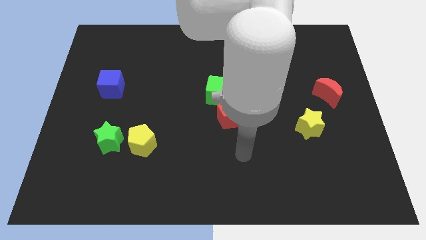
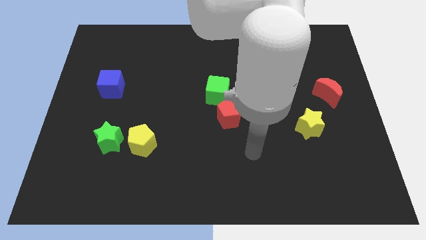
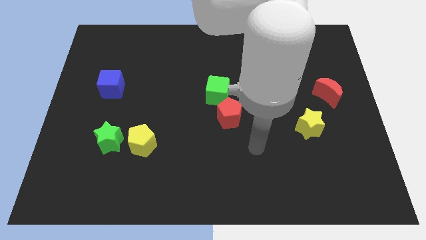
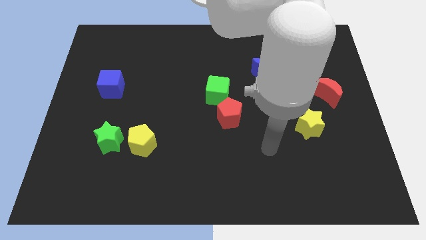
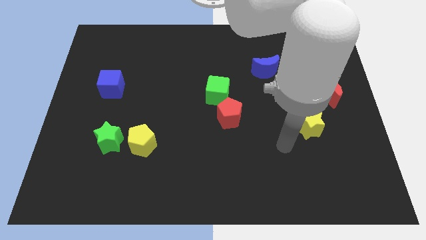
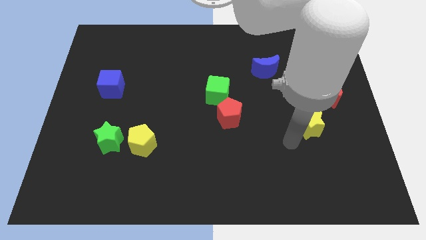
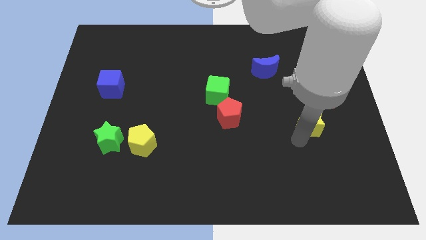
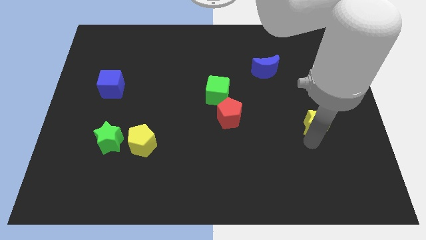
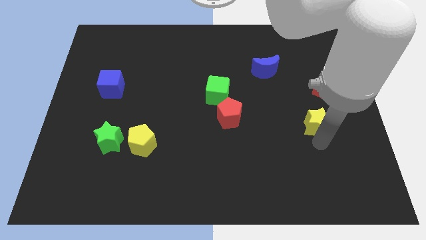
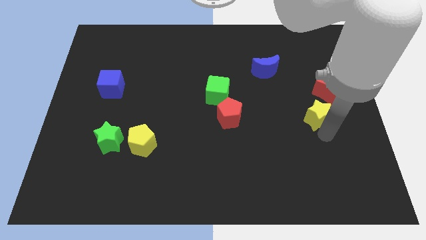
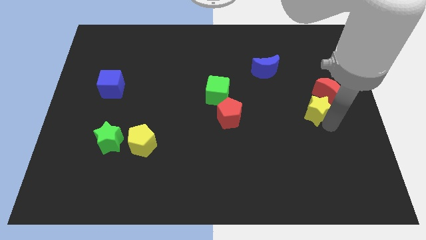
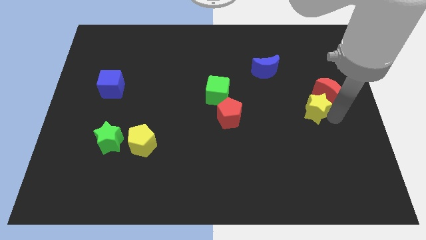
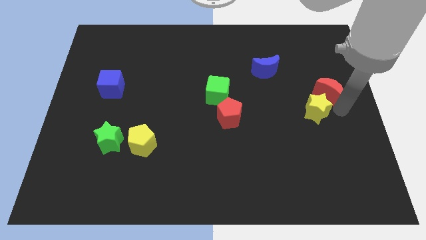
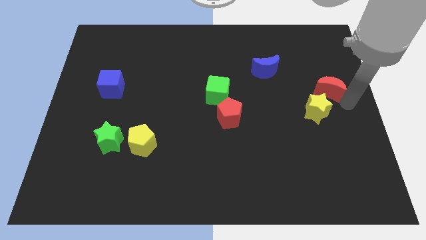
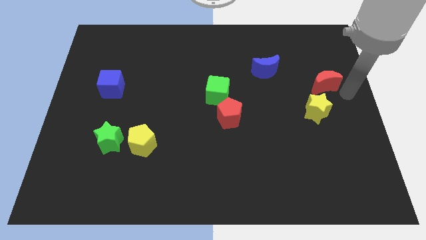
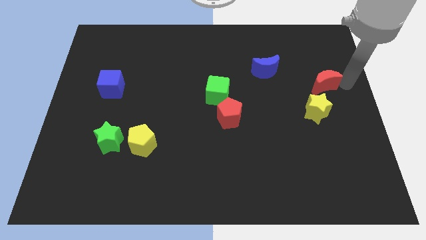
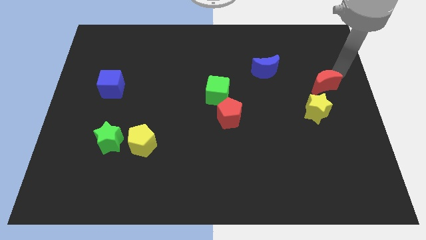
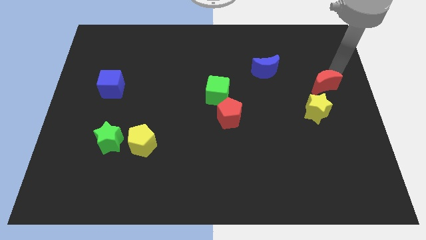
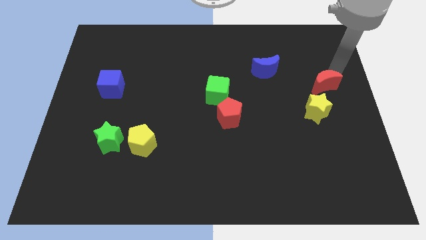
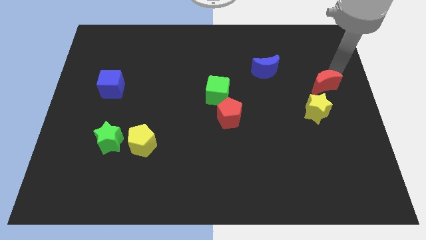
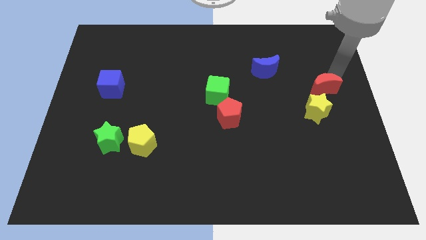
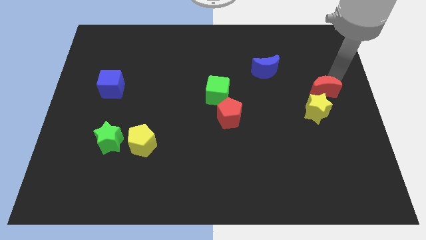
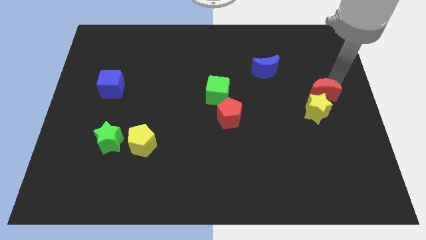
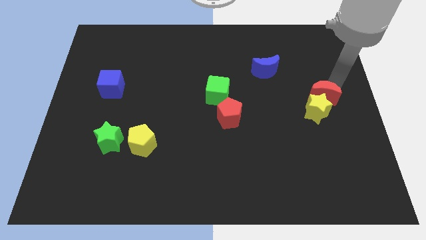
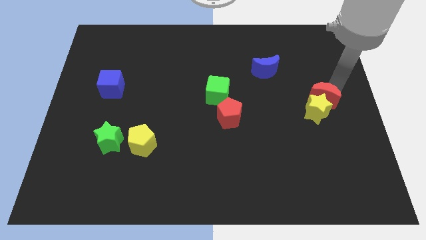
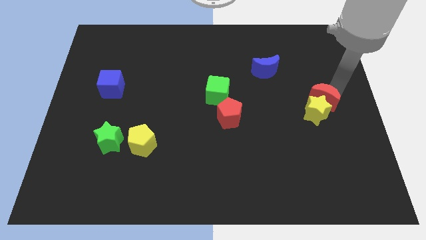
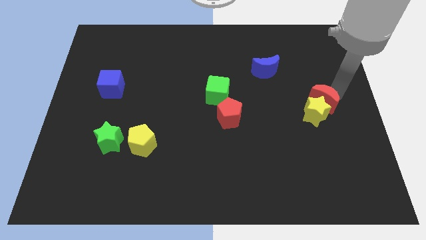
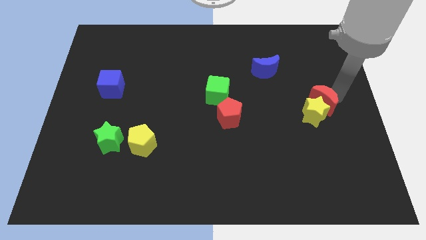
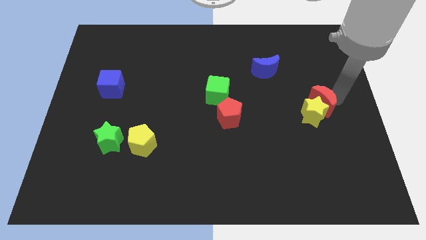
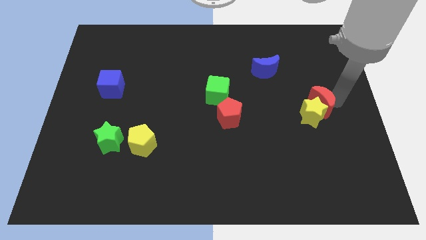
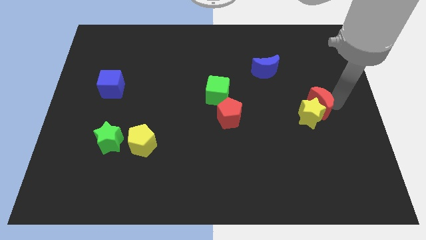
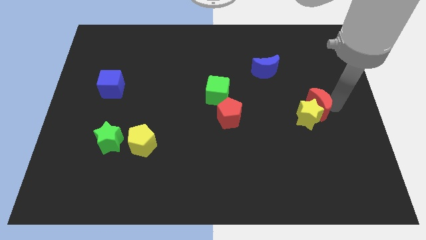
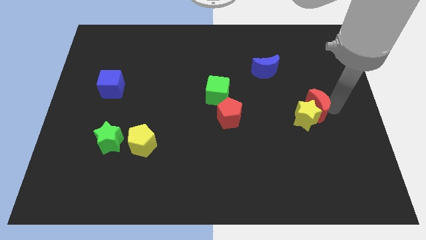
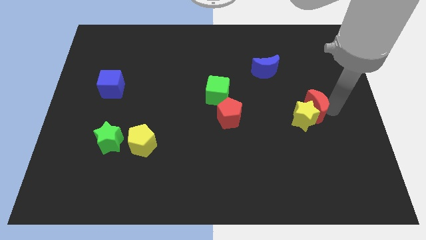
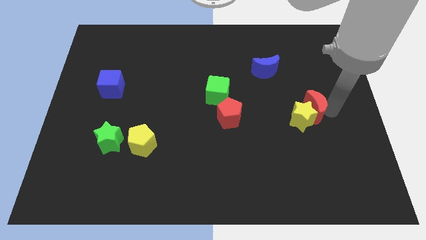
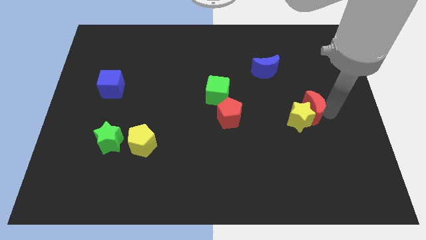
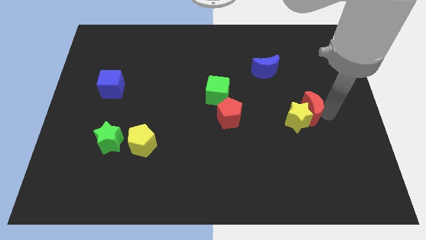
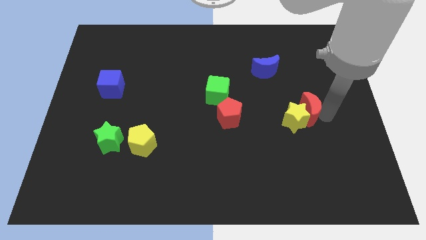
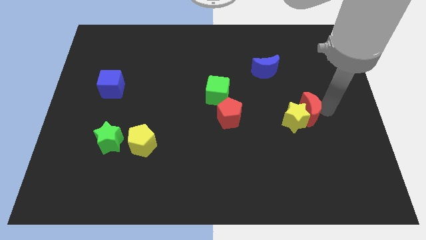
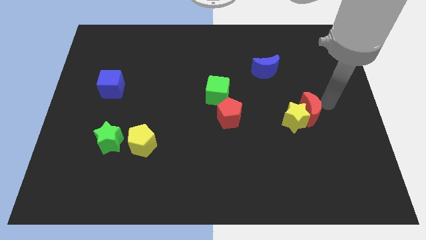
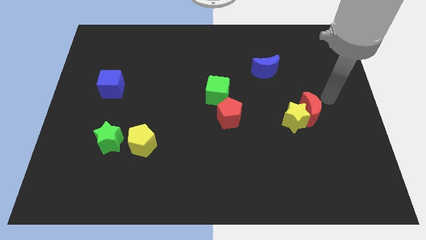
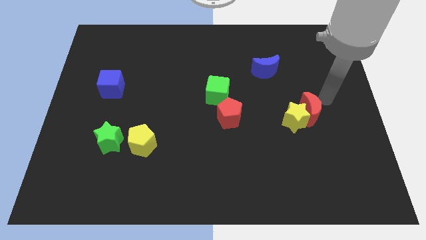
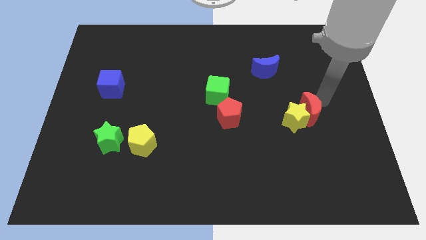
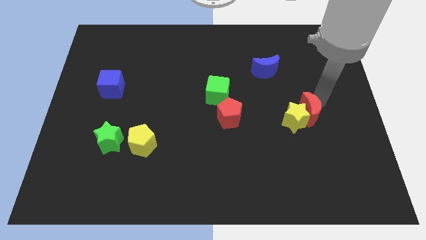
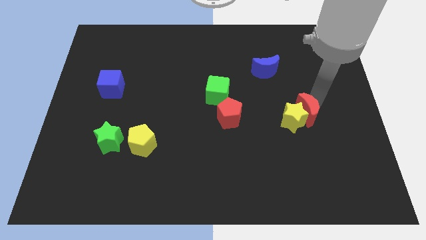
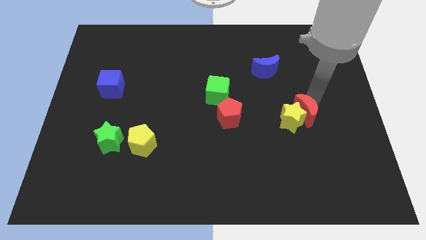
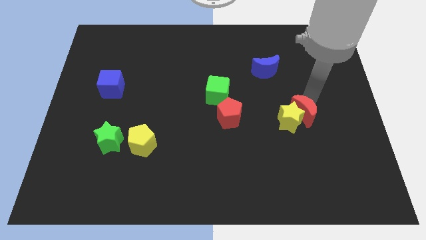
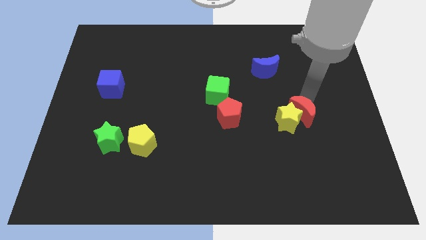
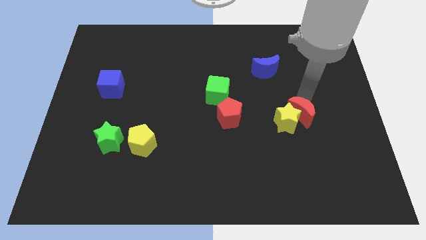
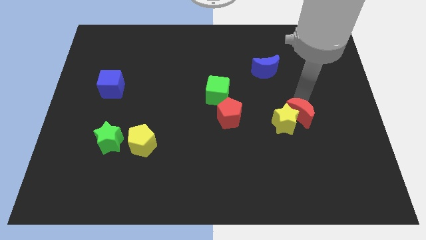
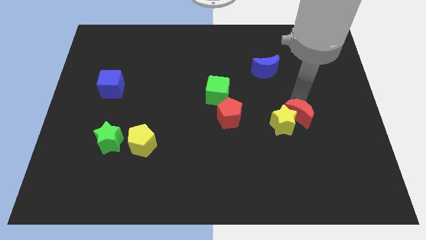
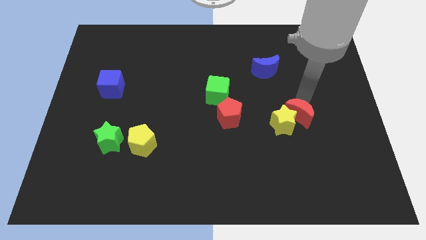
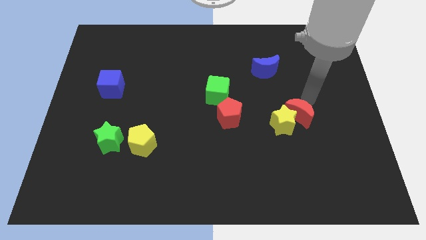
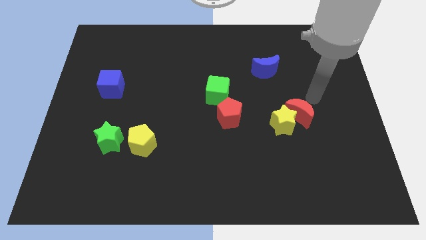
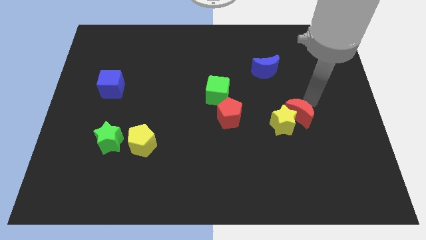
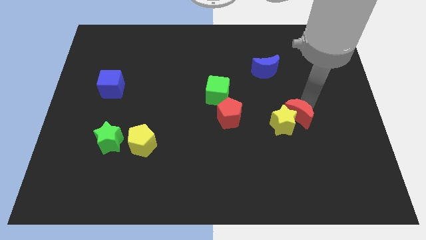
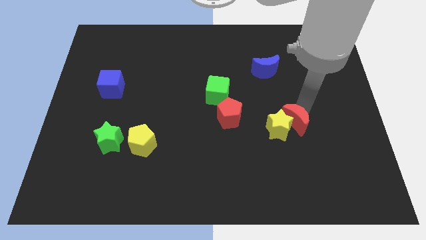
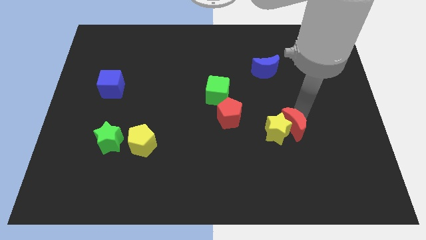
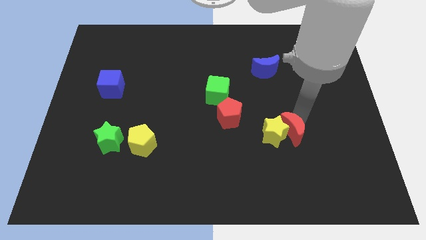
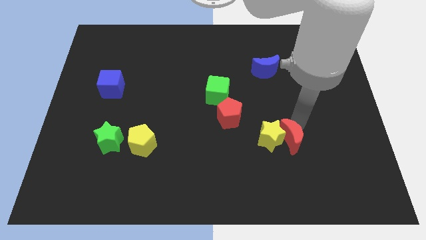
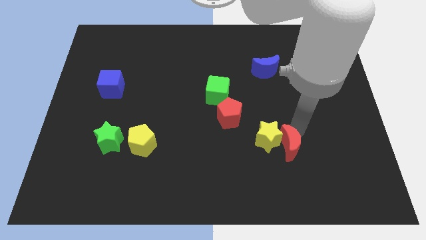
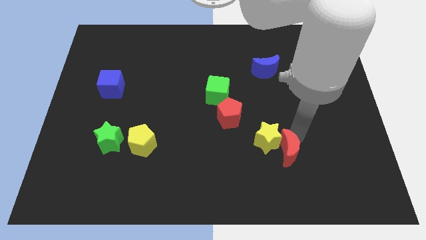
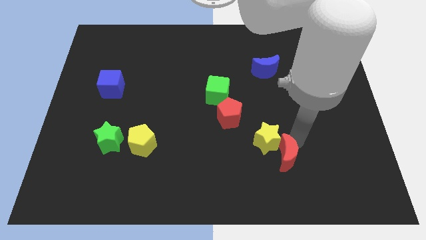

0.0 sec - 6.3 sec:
move the red moon down and then to the left

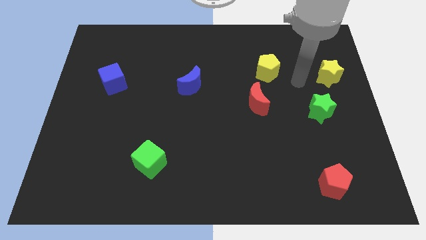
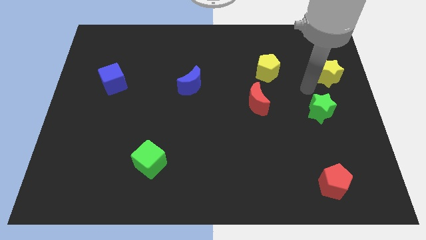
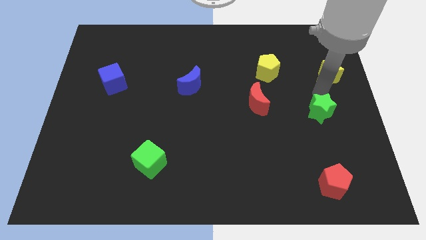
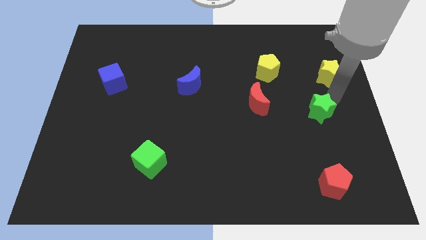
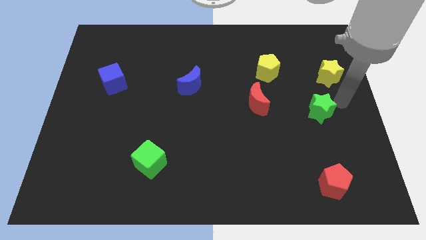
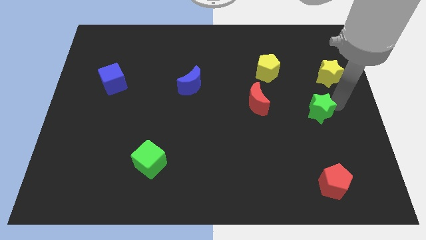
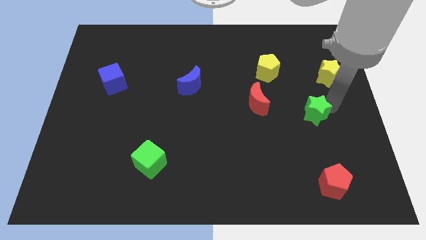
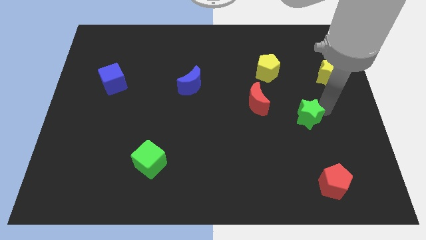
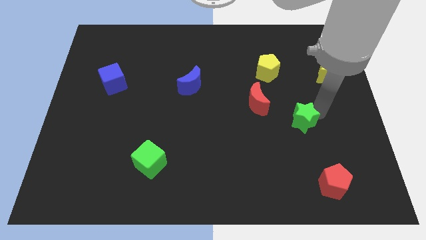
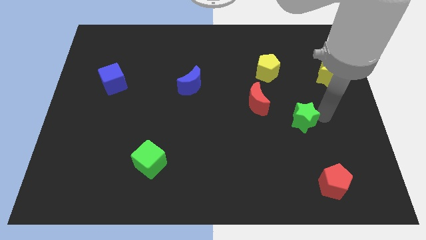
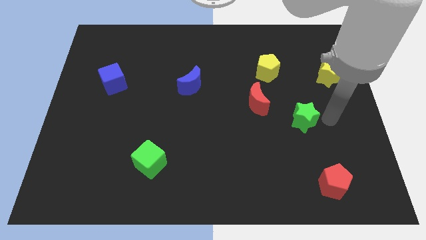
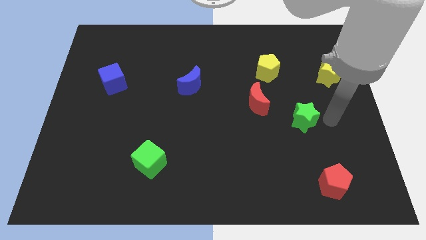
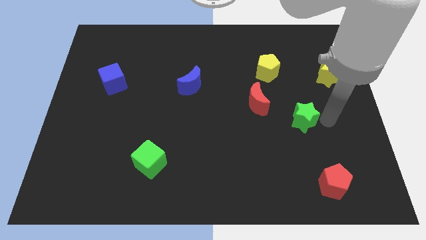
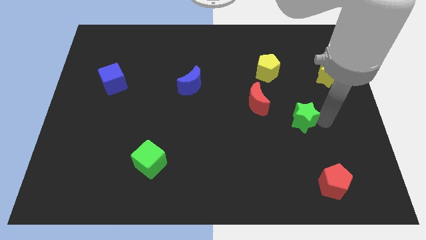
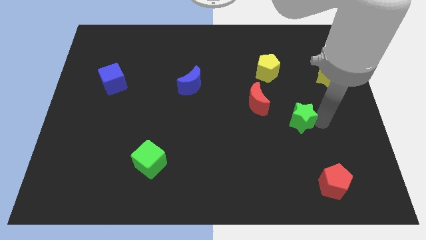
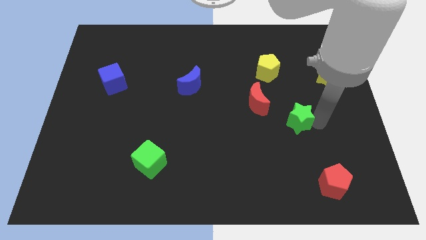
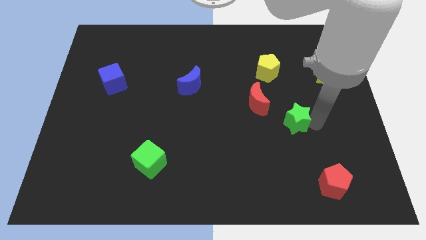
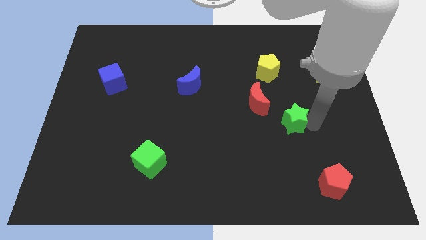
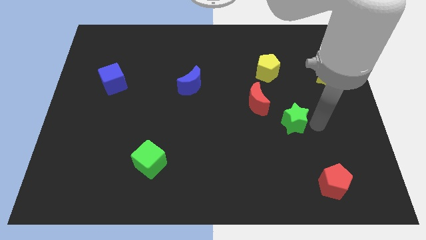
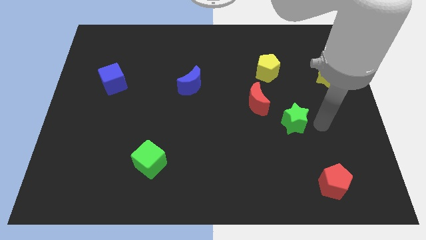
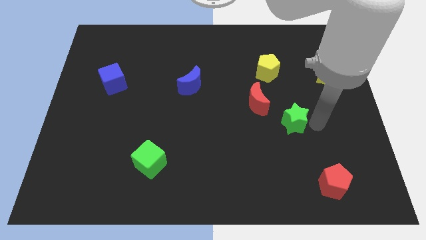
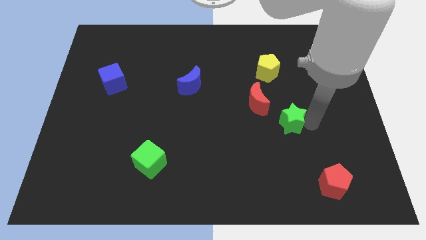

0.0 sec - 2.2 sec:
move the green star to the left a little

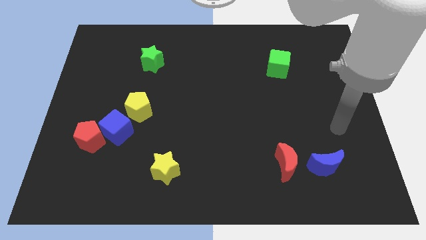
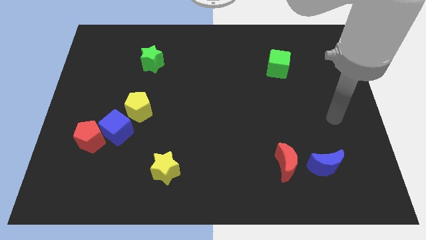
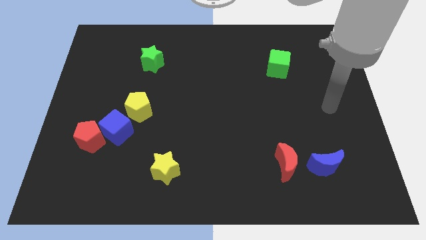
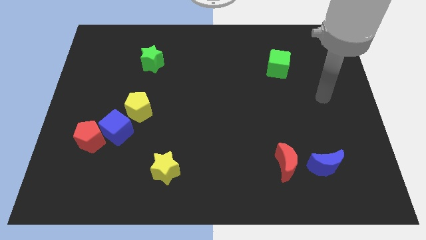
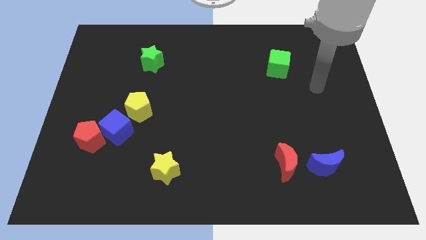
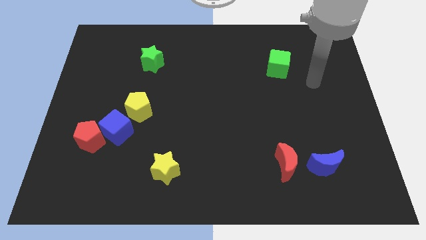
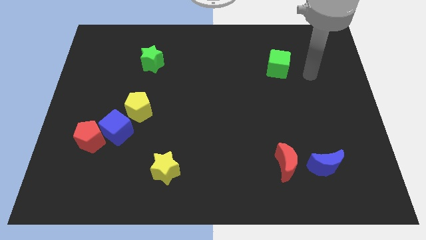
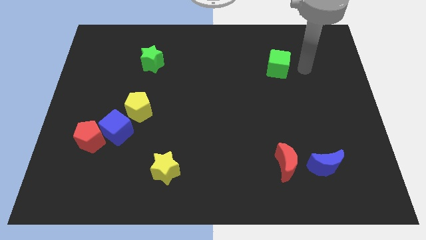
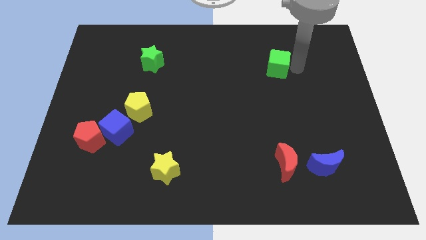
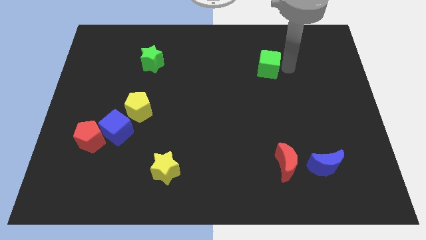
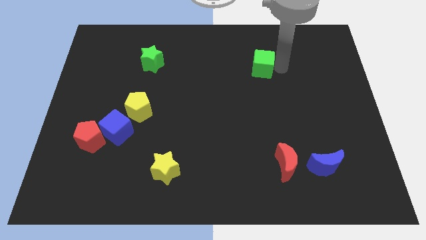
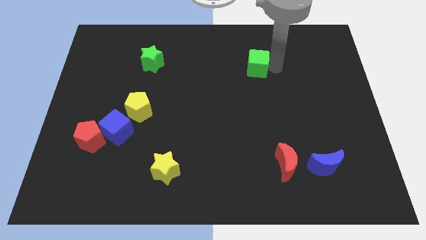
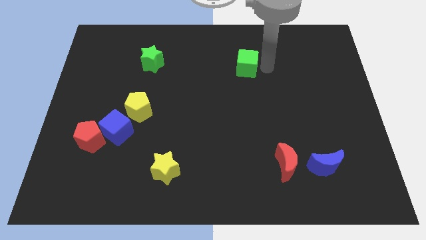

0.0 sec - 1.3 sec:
slightly slide the green cube left
